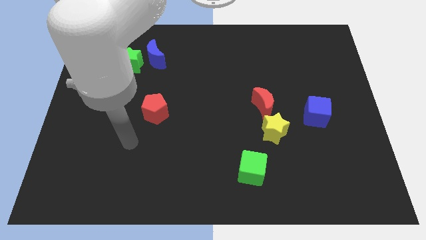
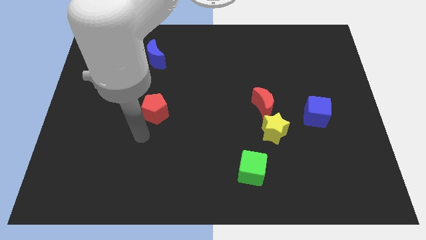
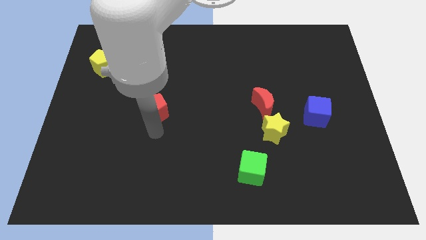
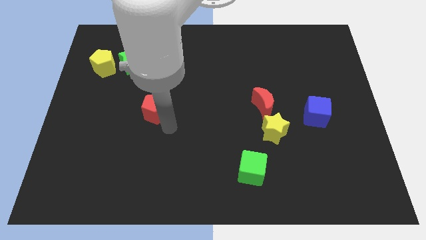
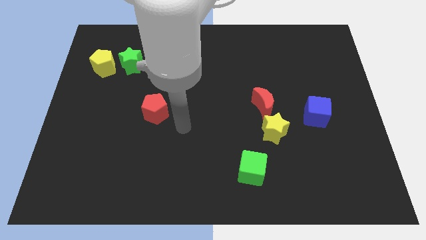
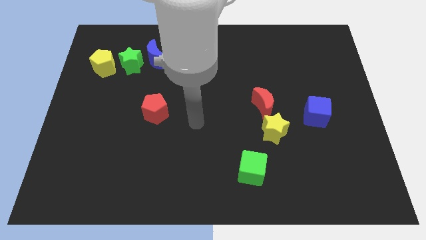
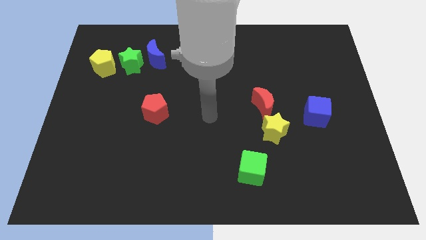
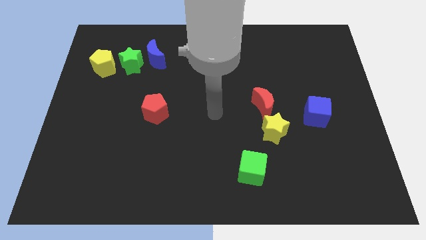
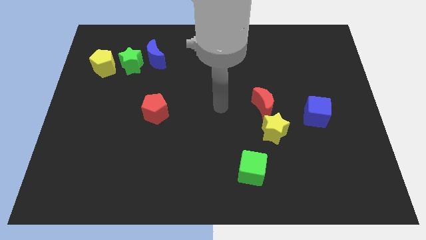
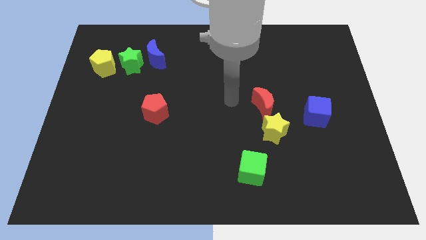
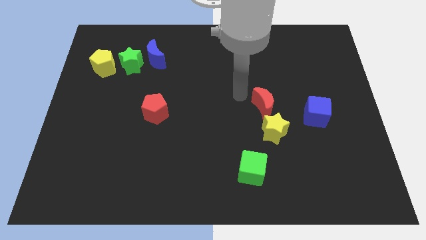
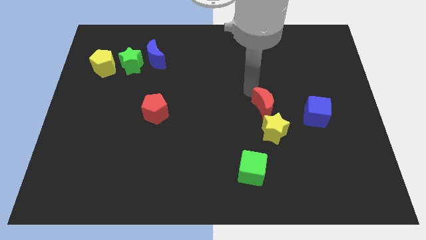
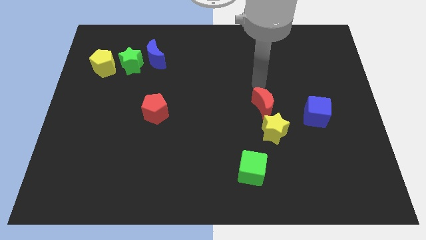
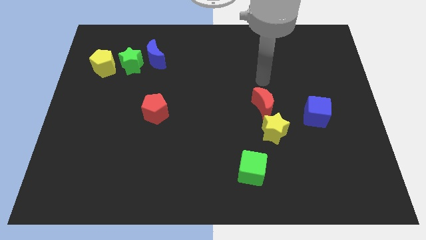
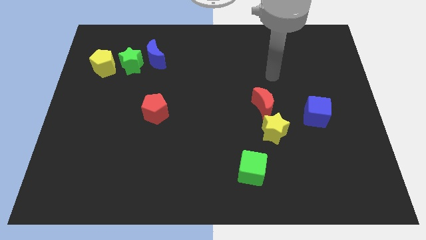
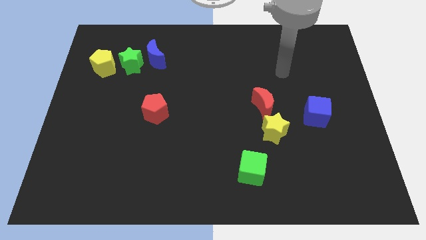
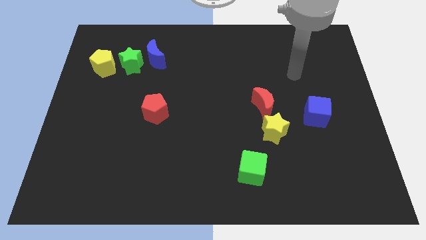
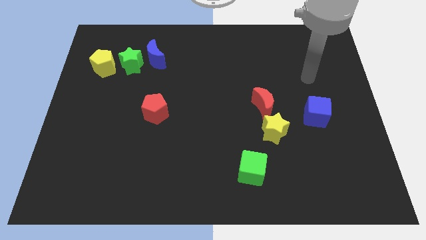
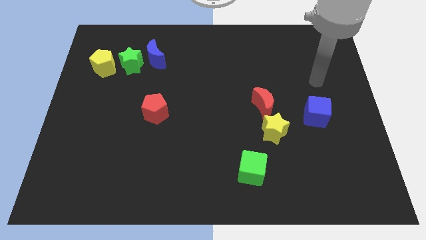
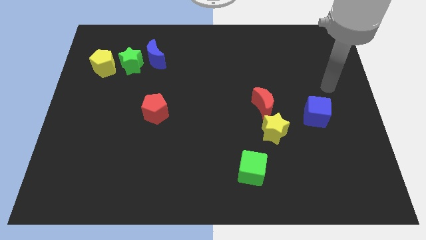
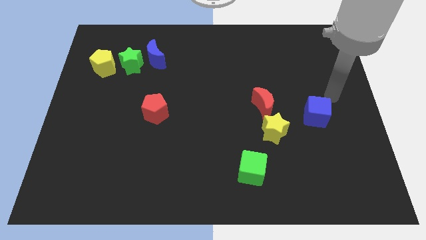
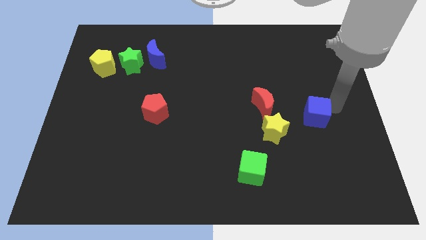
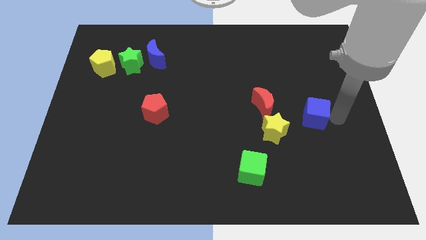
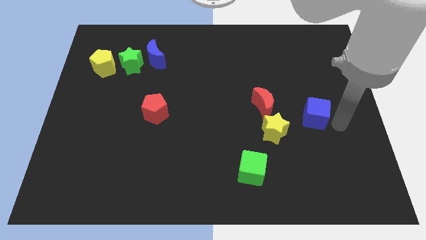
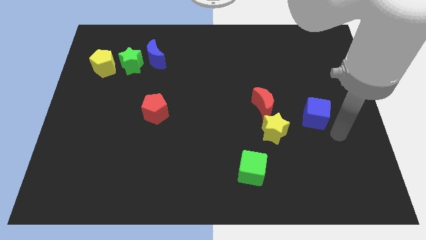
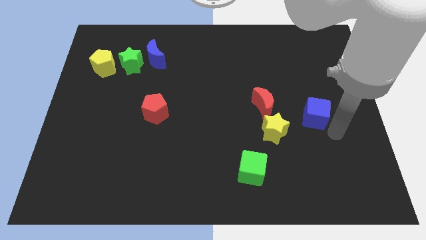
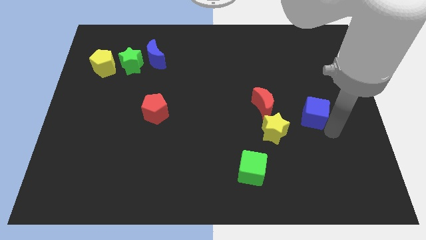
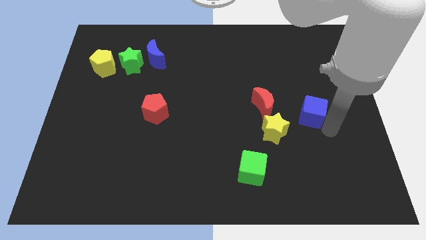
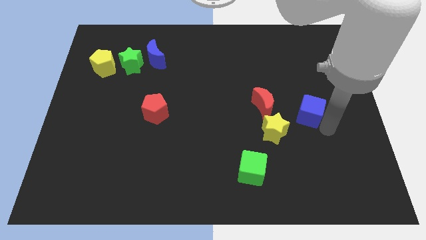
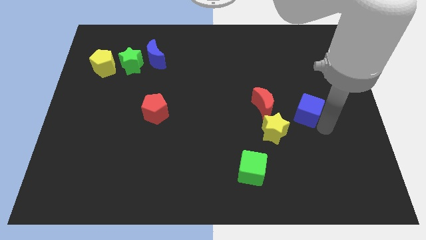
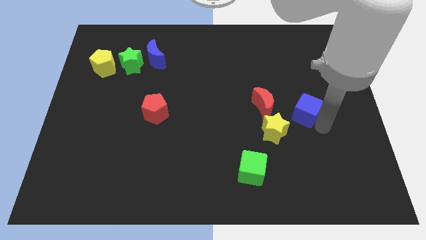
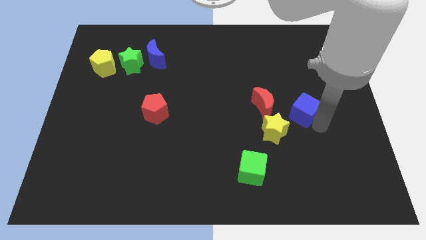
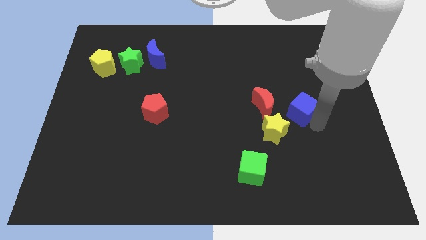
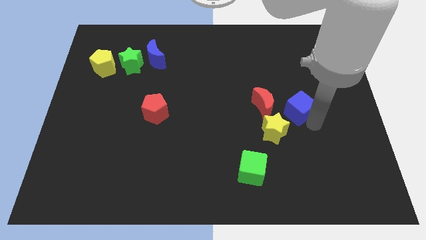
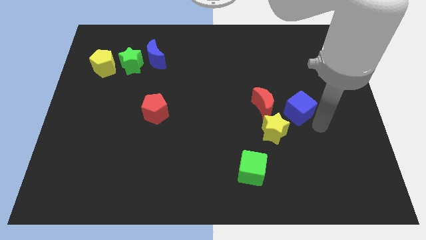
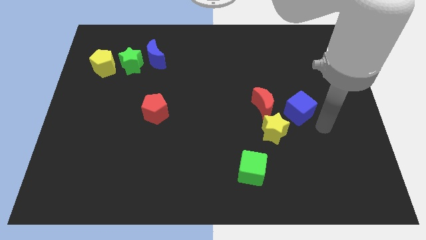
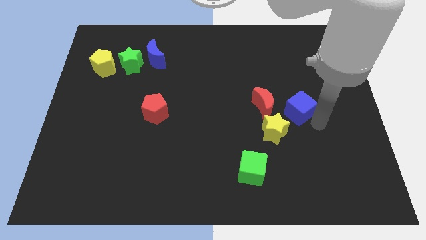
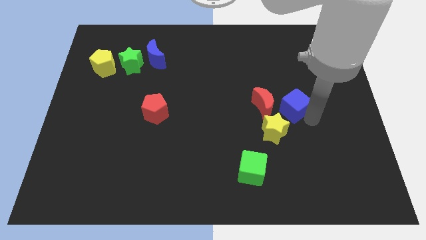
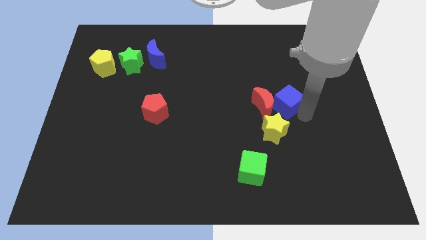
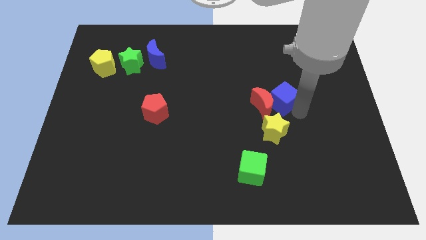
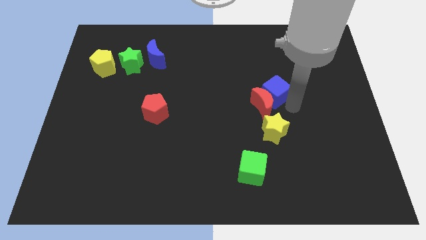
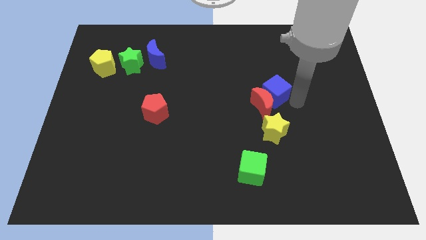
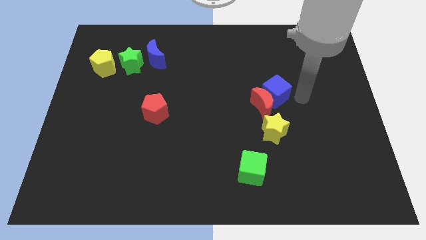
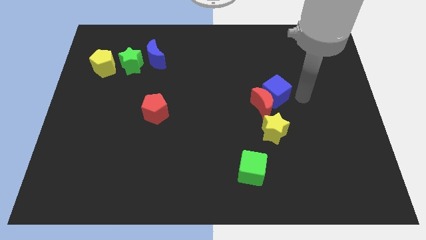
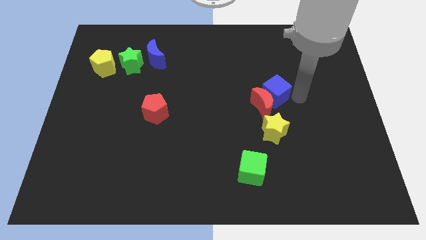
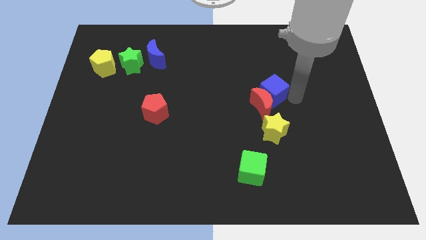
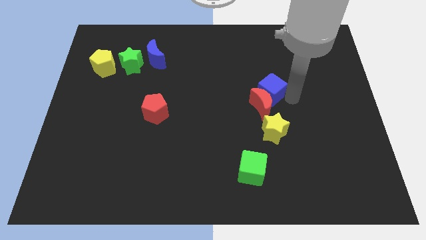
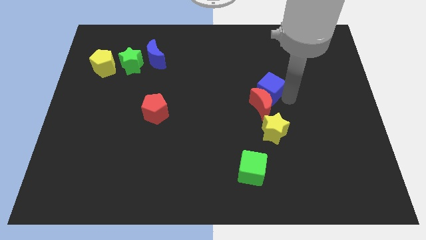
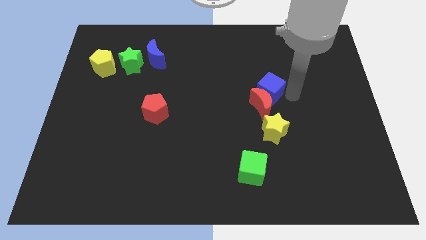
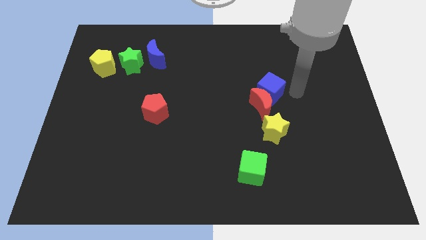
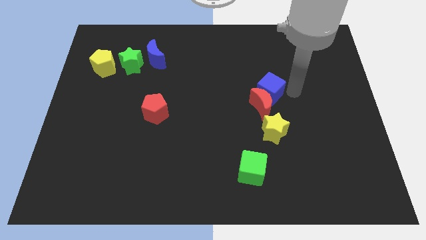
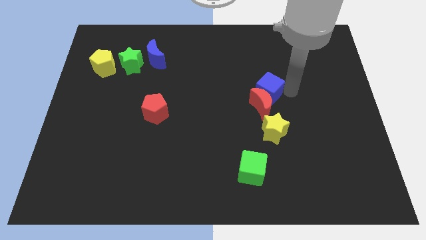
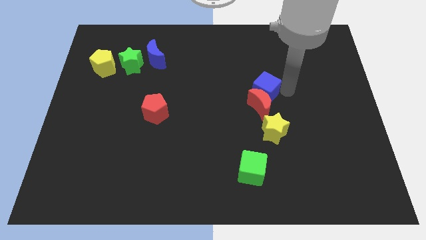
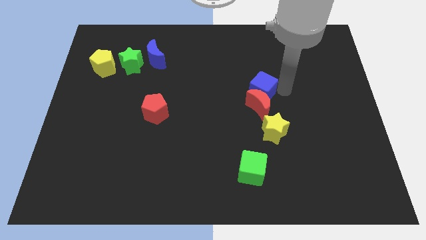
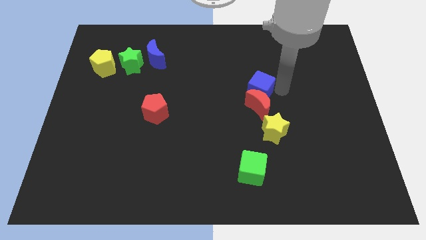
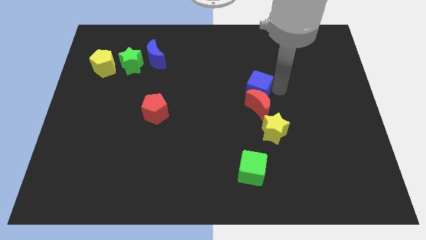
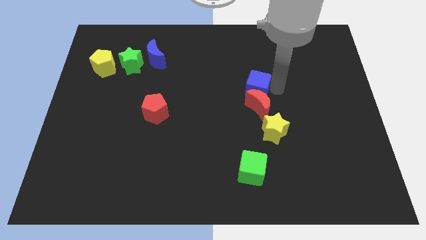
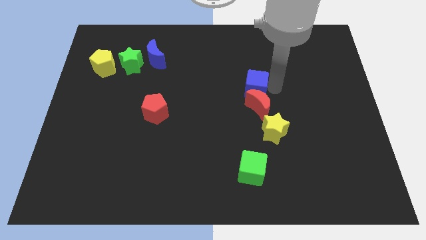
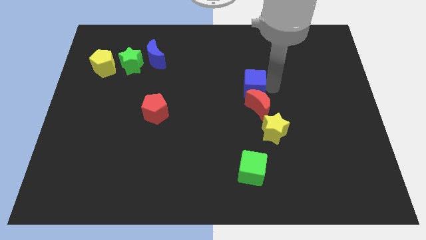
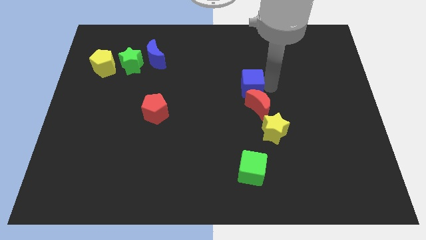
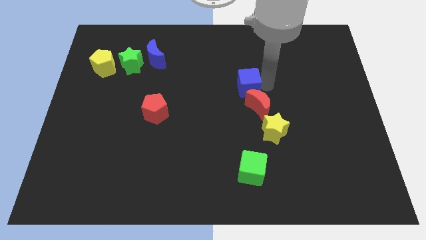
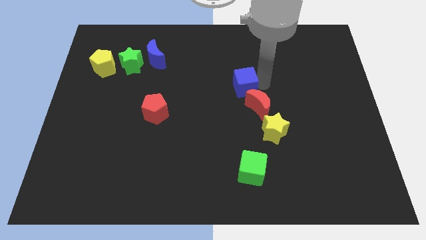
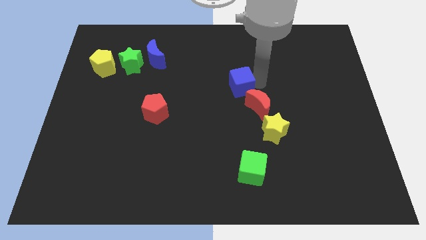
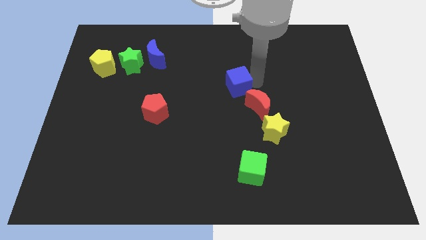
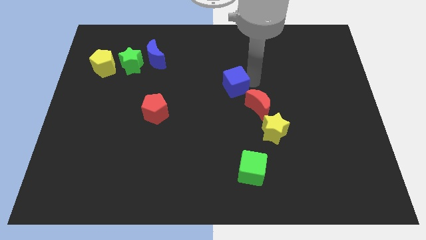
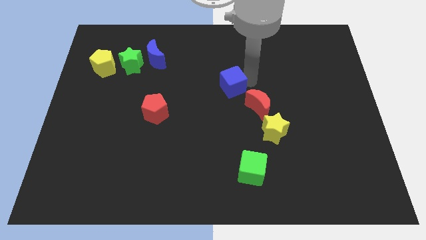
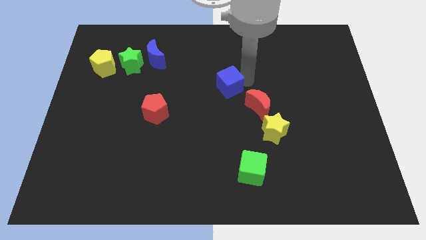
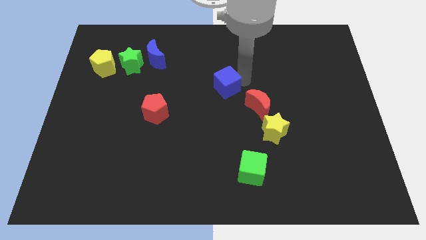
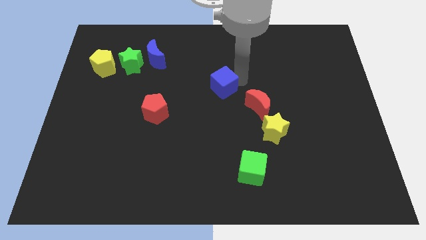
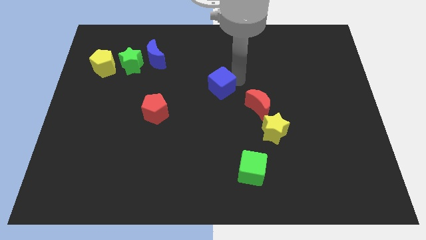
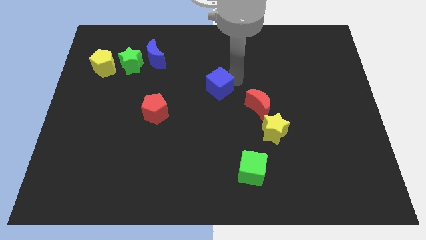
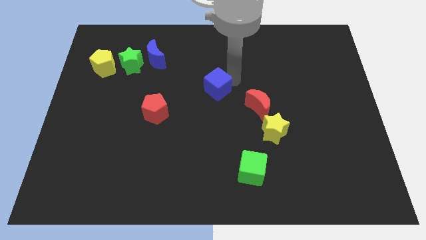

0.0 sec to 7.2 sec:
move the blue cube left

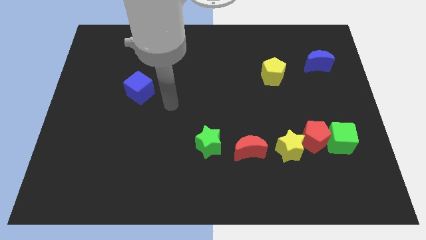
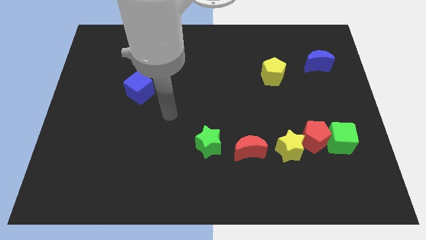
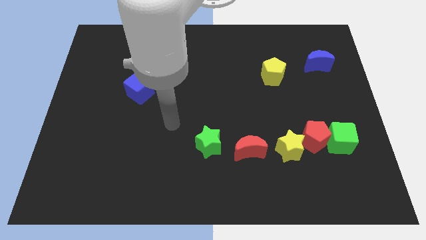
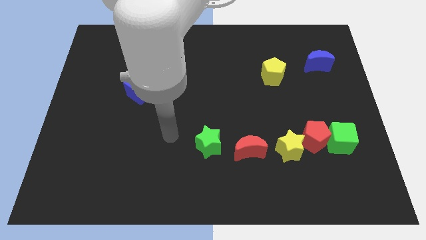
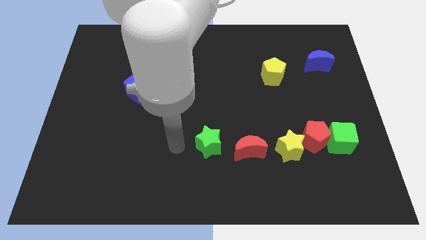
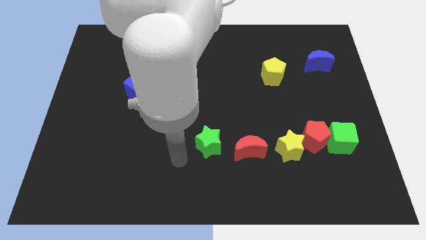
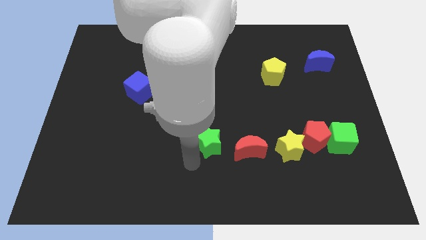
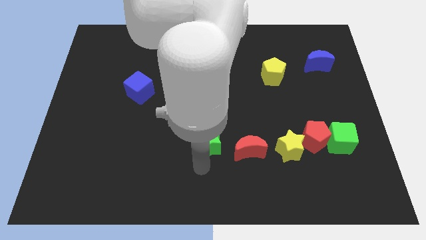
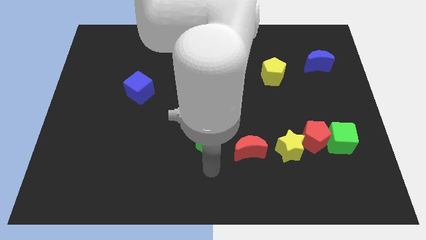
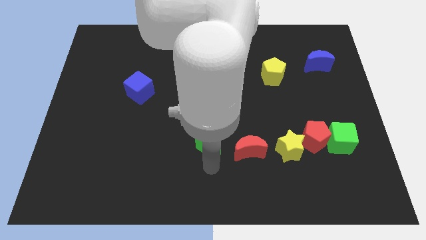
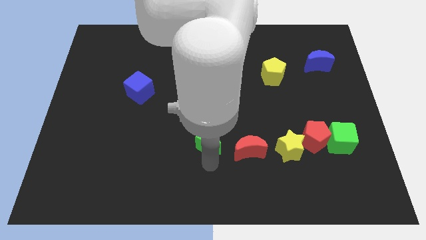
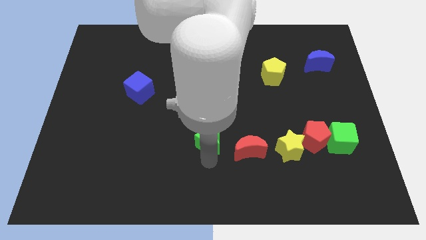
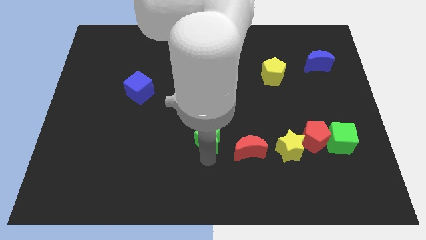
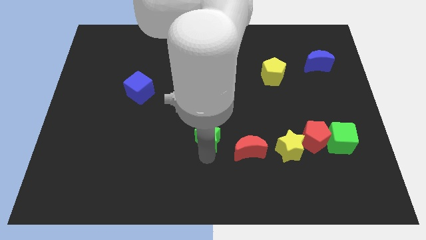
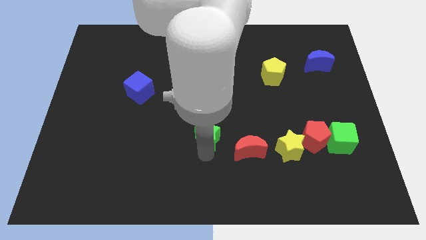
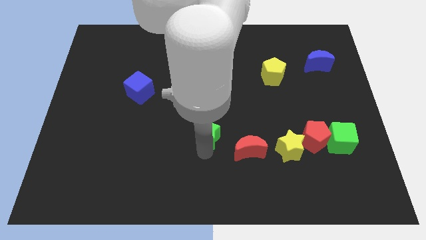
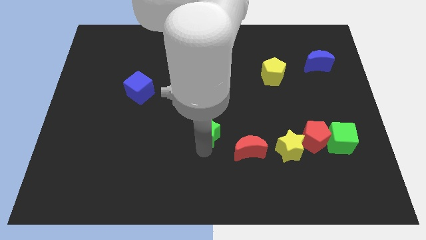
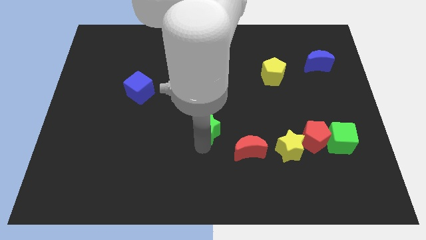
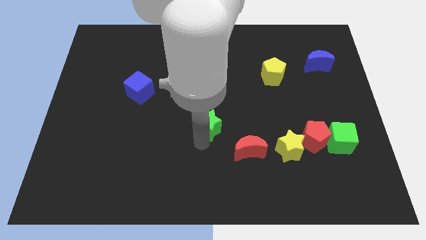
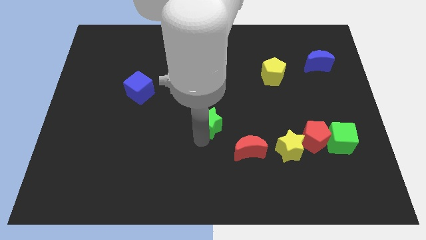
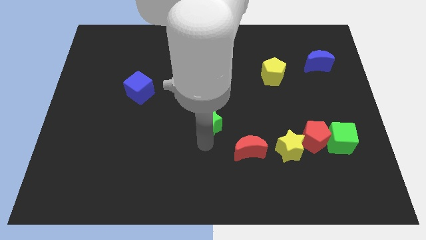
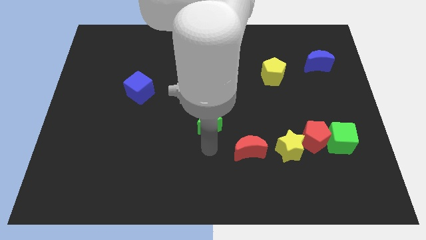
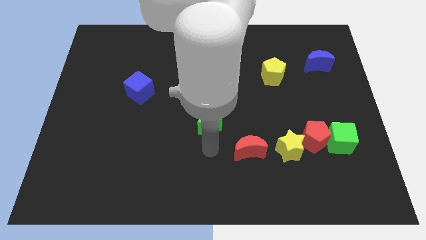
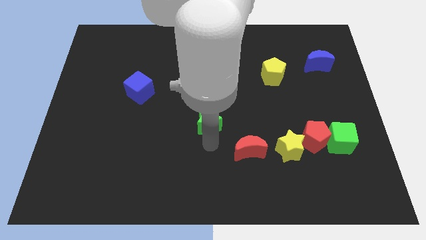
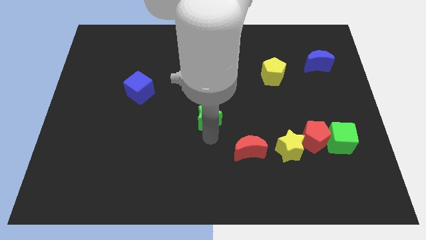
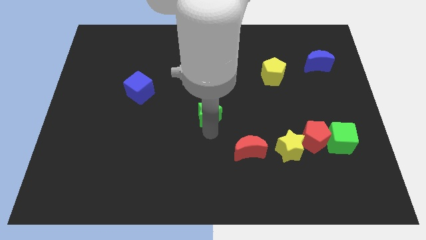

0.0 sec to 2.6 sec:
slightly slide the green star up
